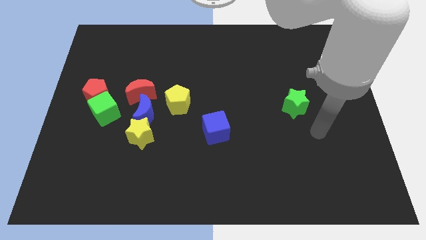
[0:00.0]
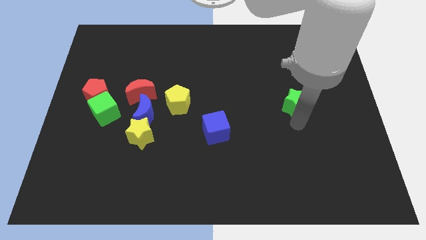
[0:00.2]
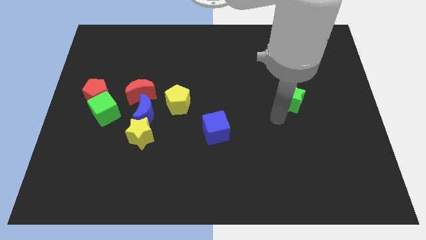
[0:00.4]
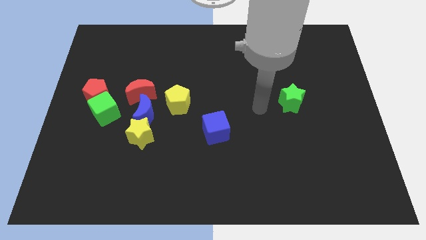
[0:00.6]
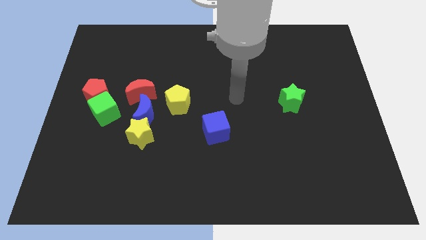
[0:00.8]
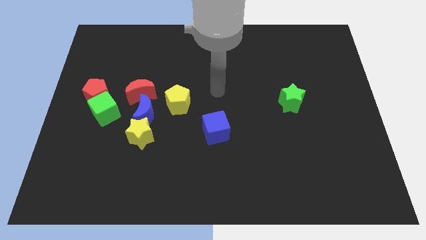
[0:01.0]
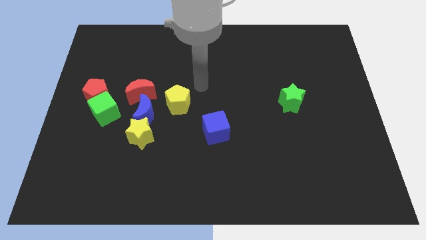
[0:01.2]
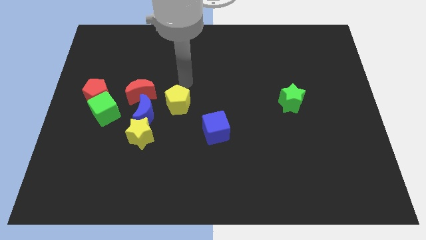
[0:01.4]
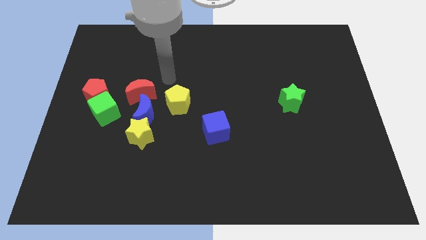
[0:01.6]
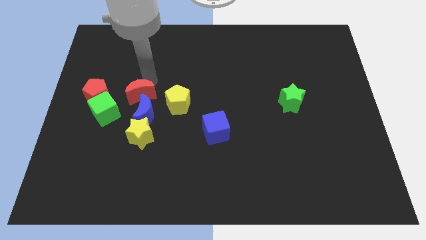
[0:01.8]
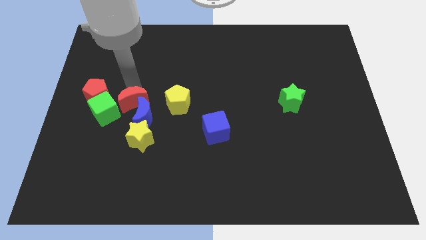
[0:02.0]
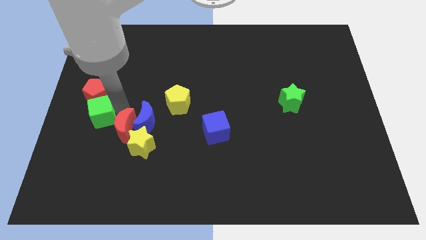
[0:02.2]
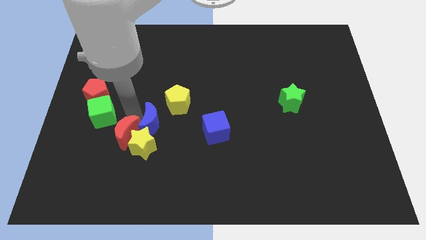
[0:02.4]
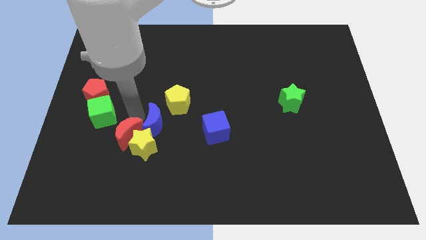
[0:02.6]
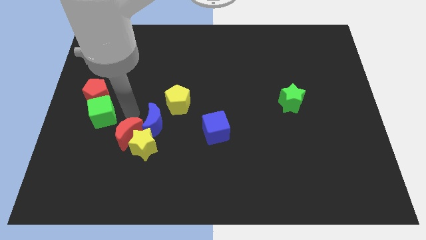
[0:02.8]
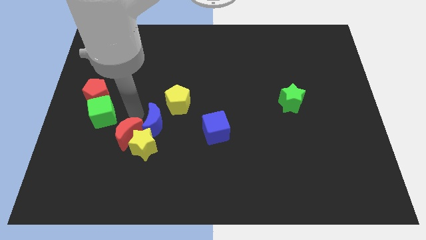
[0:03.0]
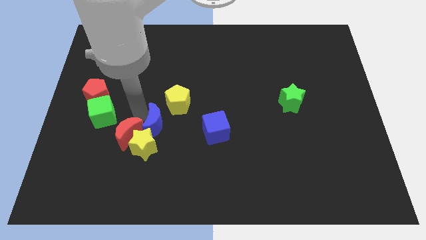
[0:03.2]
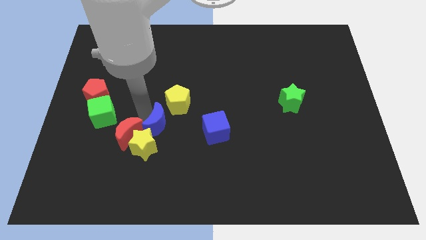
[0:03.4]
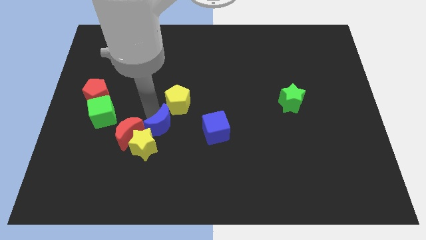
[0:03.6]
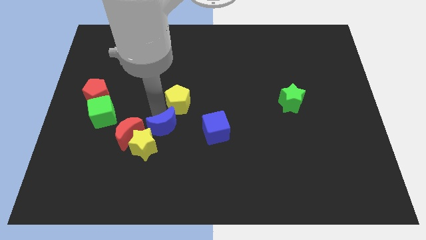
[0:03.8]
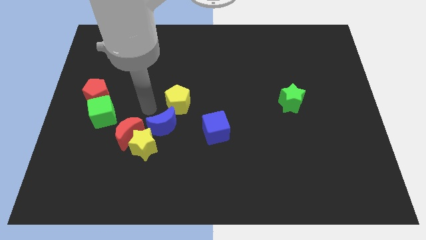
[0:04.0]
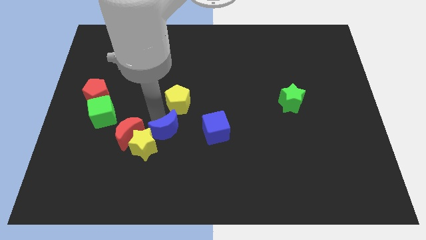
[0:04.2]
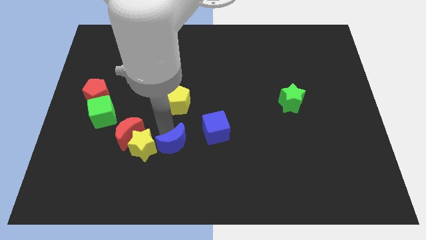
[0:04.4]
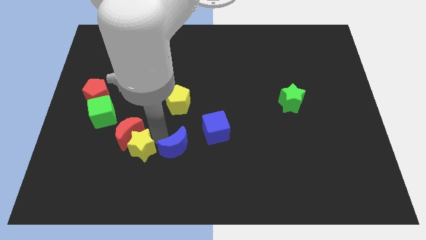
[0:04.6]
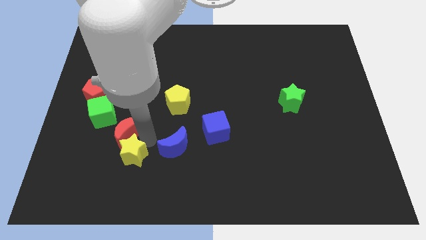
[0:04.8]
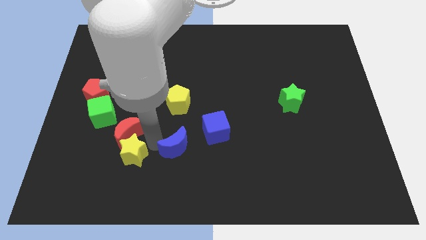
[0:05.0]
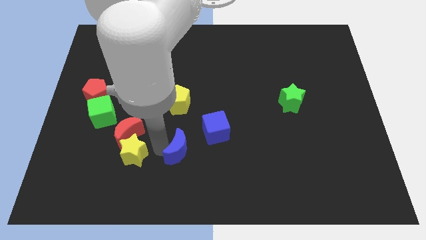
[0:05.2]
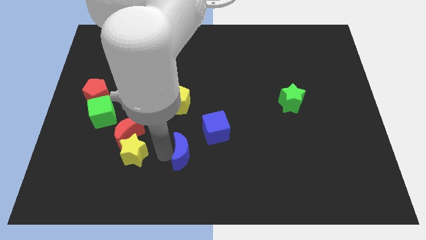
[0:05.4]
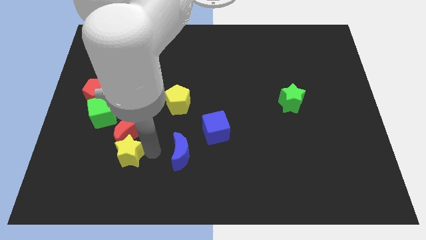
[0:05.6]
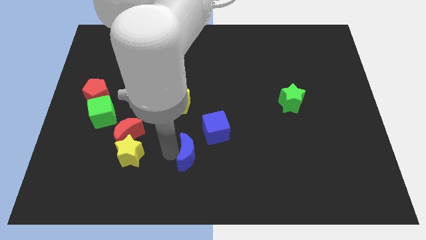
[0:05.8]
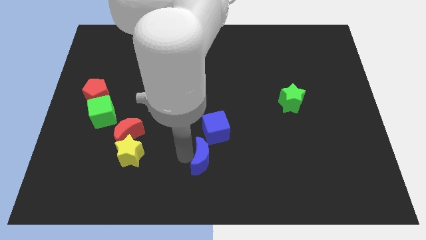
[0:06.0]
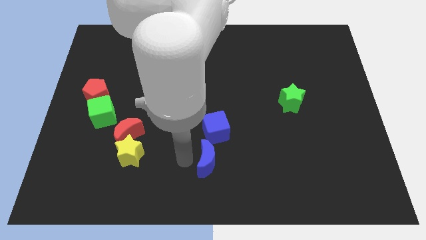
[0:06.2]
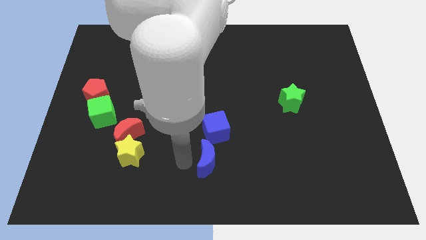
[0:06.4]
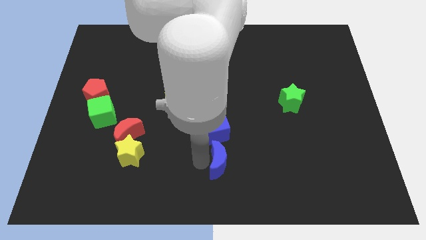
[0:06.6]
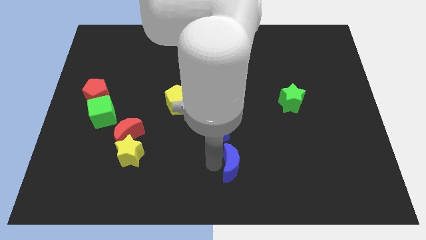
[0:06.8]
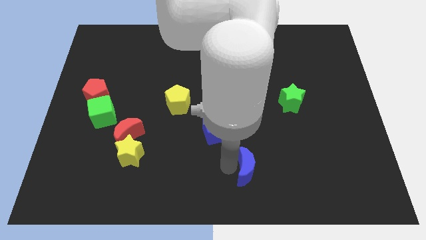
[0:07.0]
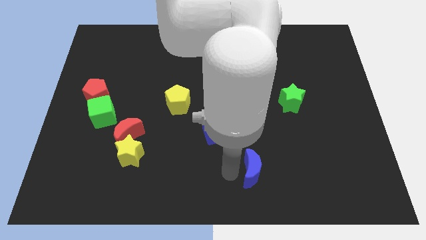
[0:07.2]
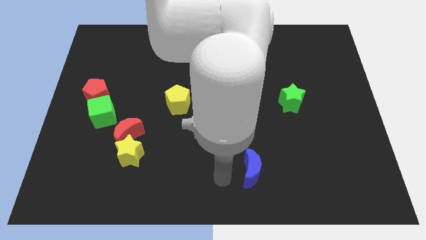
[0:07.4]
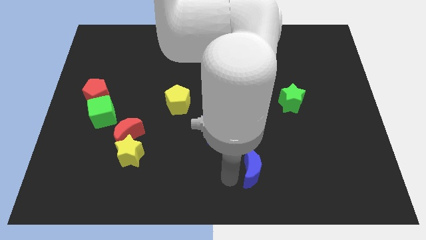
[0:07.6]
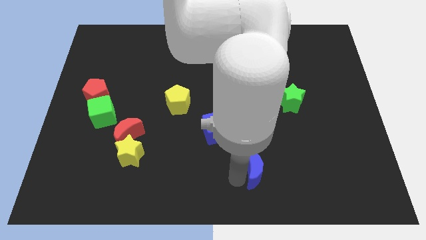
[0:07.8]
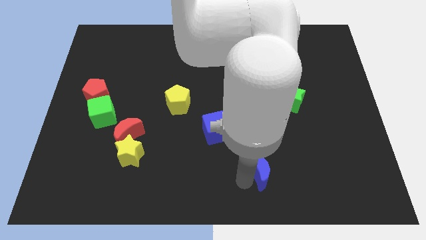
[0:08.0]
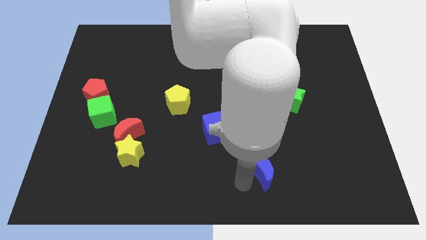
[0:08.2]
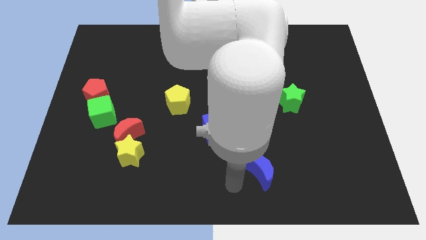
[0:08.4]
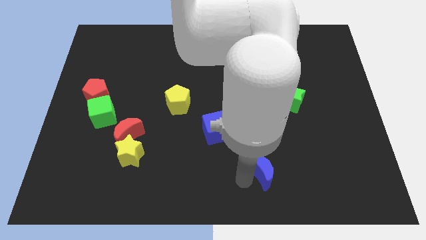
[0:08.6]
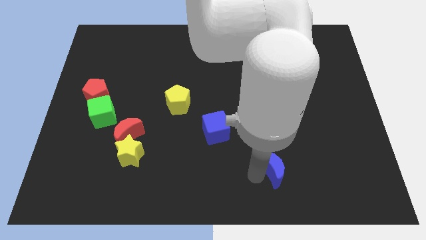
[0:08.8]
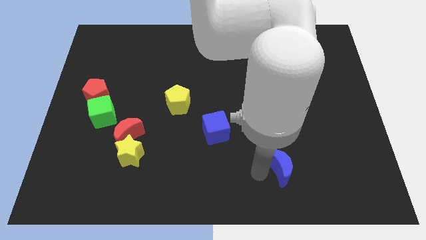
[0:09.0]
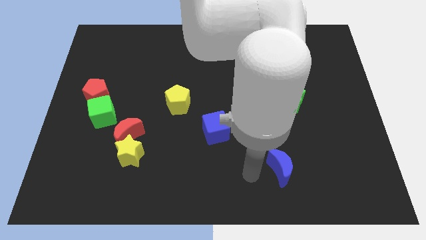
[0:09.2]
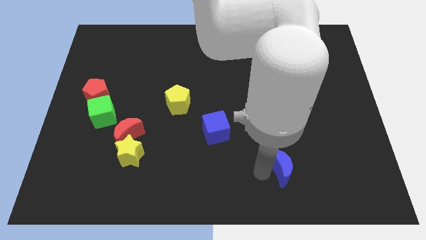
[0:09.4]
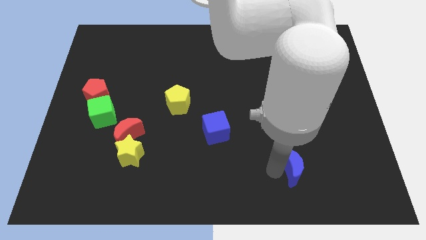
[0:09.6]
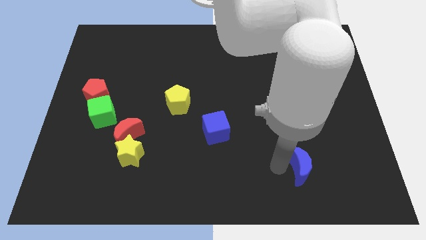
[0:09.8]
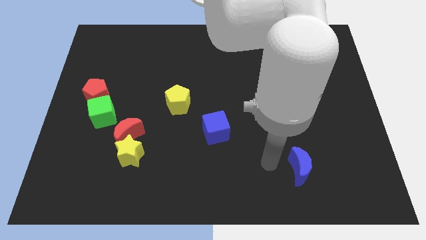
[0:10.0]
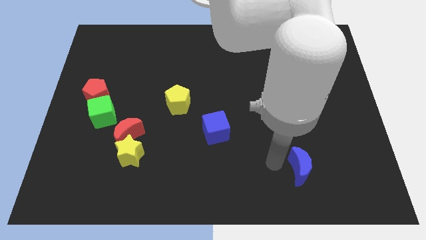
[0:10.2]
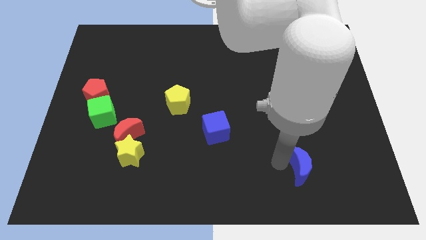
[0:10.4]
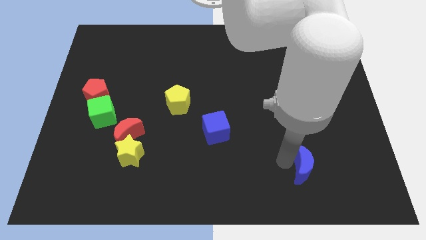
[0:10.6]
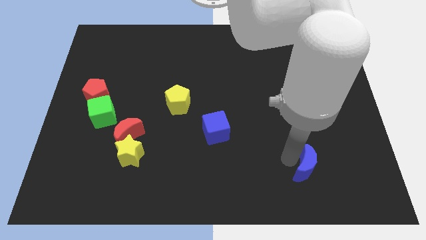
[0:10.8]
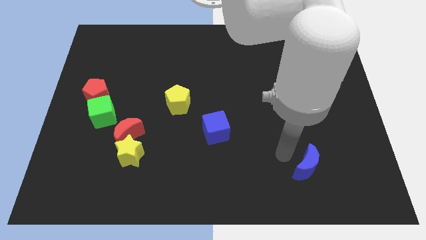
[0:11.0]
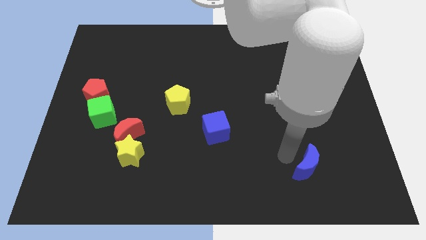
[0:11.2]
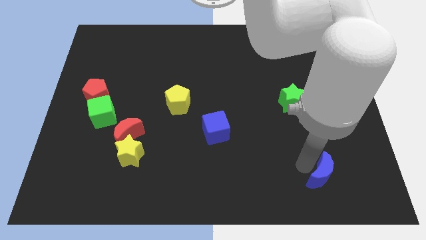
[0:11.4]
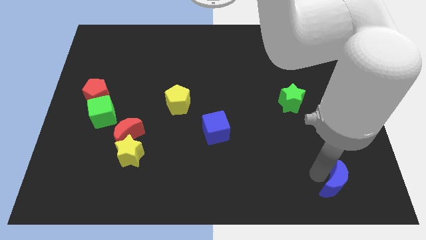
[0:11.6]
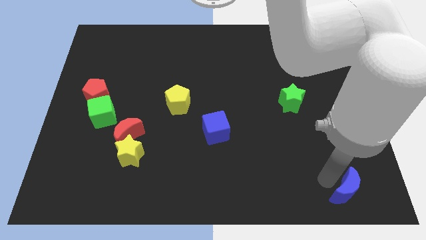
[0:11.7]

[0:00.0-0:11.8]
put the blue moon to the bottom right of the board

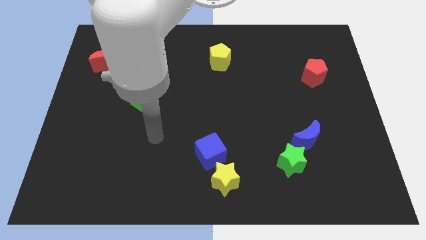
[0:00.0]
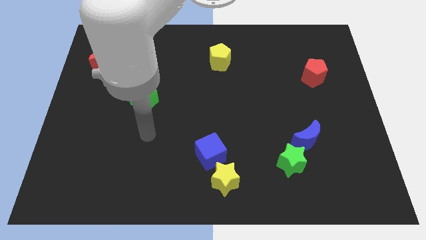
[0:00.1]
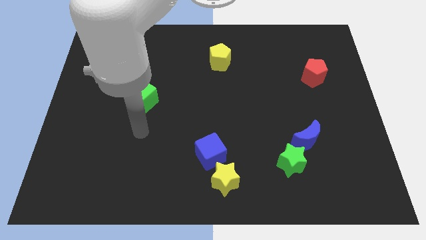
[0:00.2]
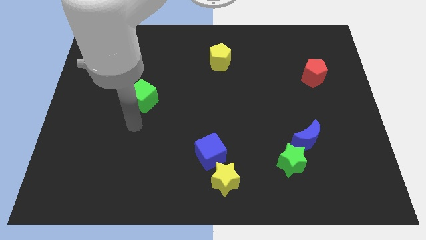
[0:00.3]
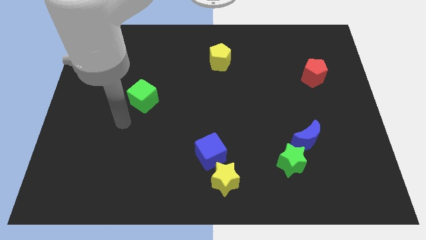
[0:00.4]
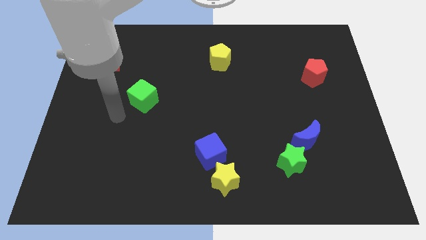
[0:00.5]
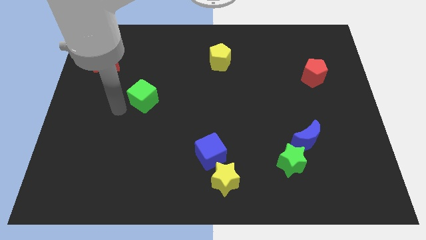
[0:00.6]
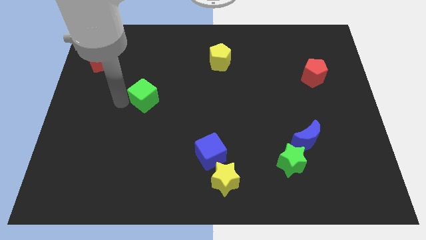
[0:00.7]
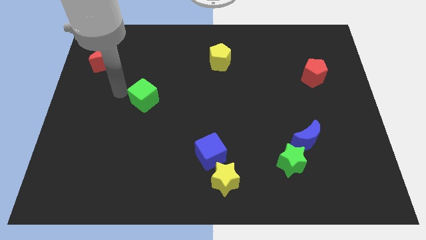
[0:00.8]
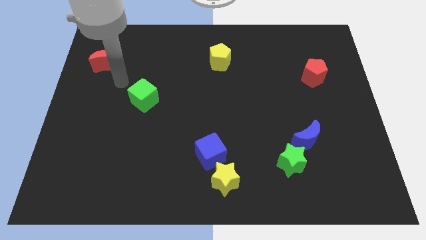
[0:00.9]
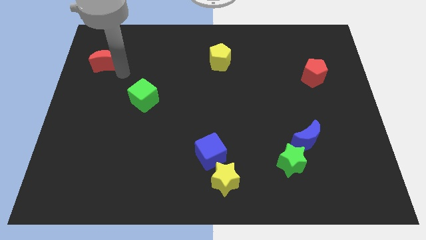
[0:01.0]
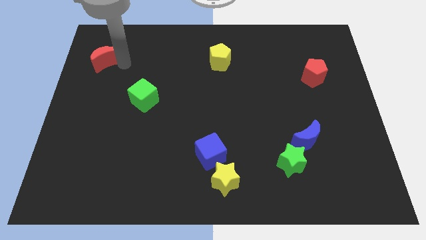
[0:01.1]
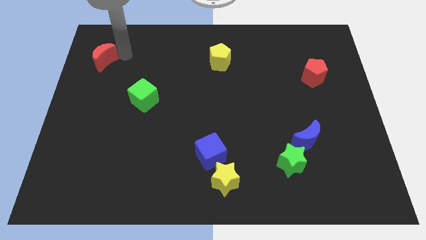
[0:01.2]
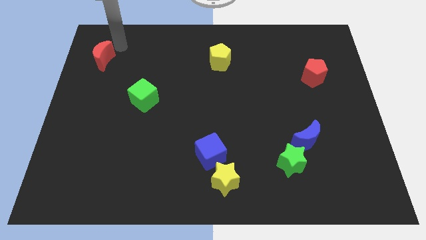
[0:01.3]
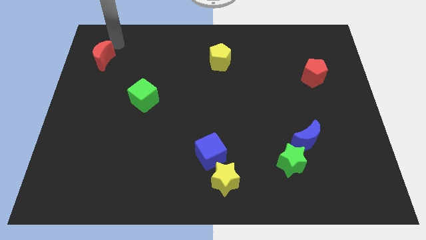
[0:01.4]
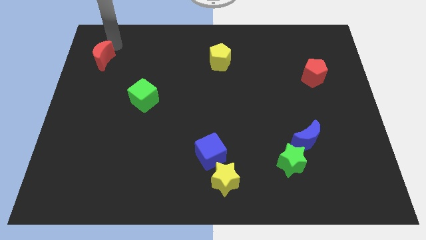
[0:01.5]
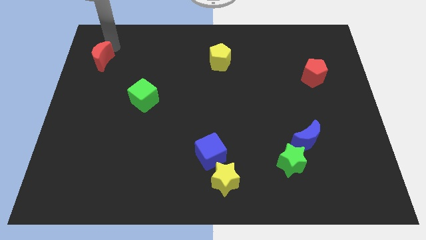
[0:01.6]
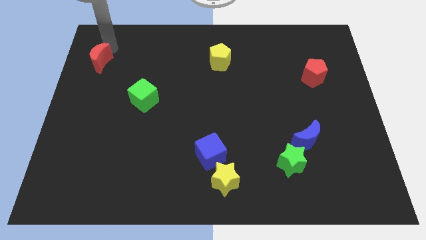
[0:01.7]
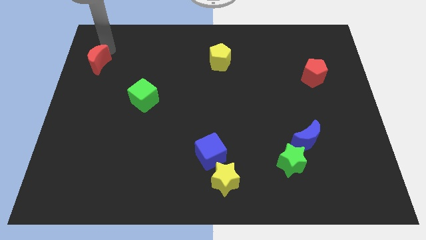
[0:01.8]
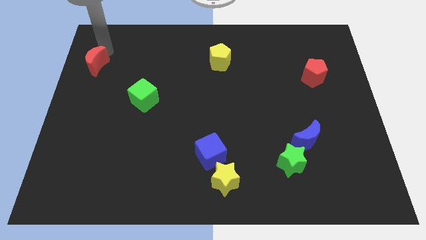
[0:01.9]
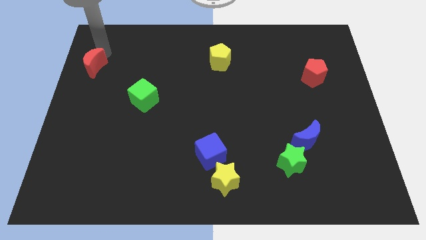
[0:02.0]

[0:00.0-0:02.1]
move the red moon to the center left
